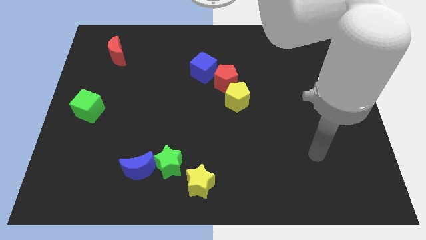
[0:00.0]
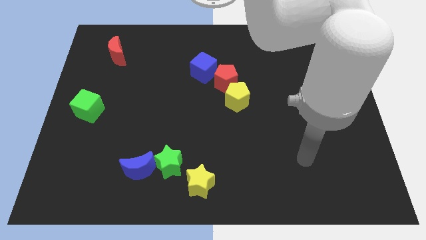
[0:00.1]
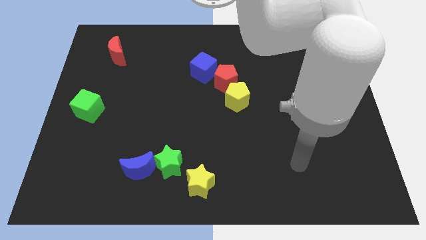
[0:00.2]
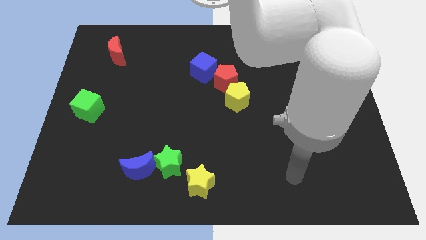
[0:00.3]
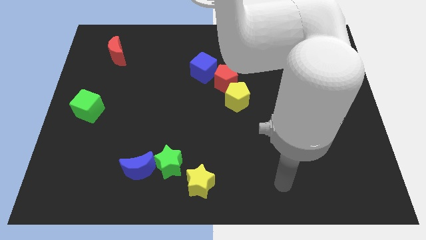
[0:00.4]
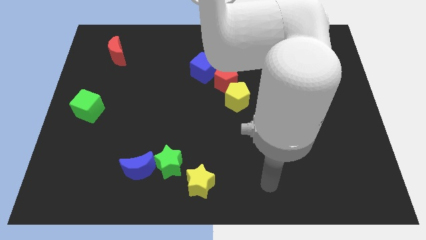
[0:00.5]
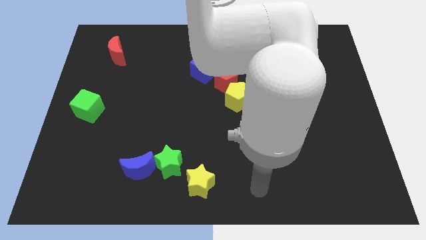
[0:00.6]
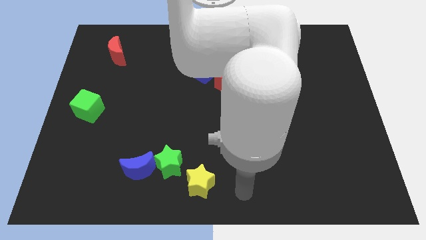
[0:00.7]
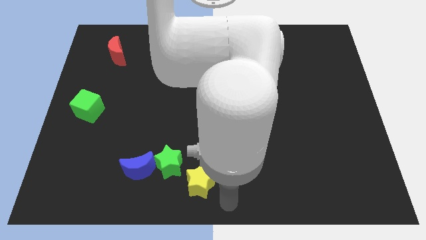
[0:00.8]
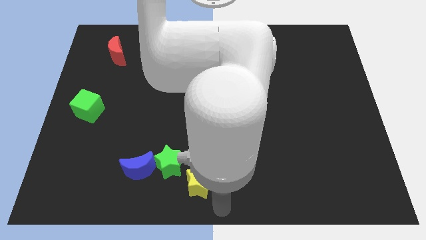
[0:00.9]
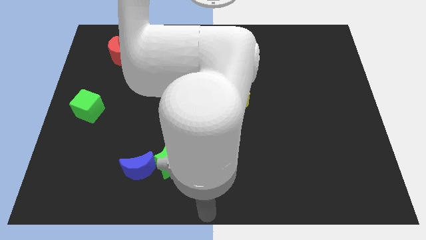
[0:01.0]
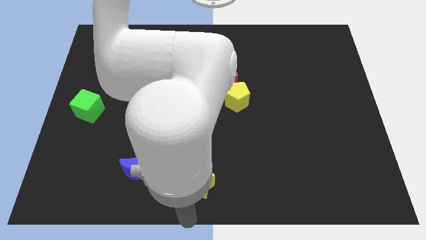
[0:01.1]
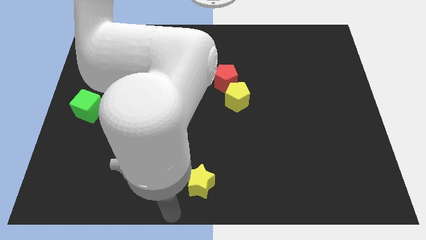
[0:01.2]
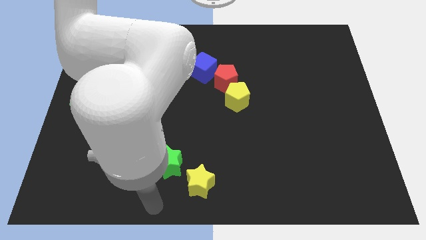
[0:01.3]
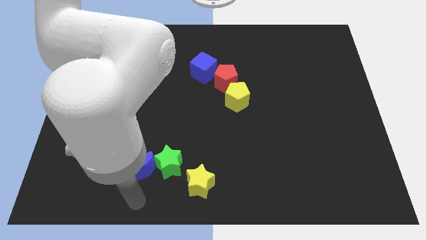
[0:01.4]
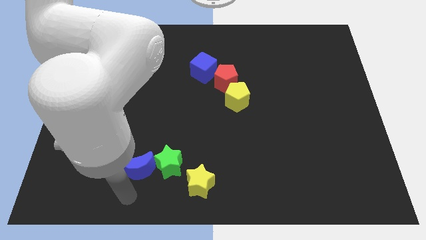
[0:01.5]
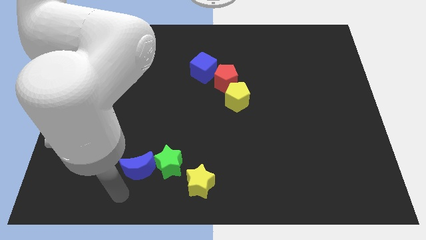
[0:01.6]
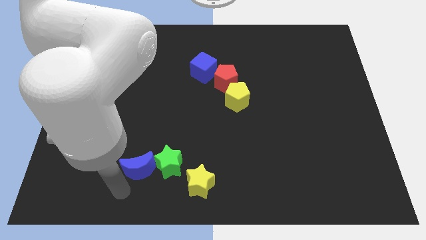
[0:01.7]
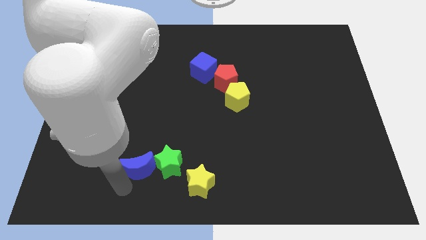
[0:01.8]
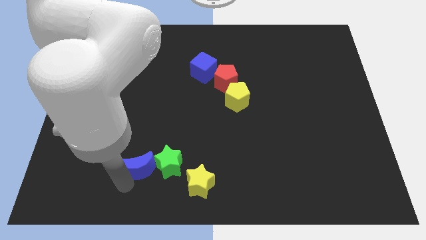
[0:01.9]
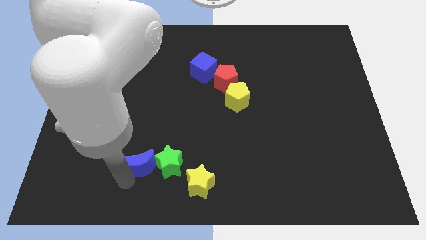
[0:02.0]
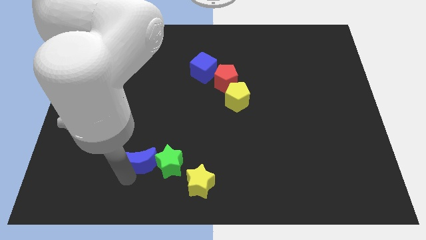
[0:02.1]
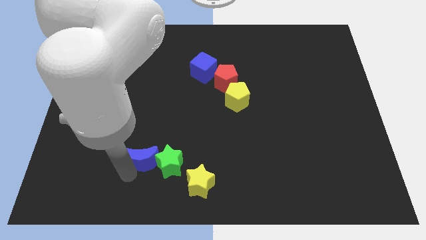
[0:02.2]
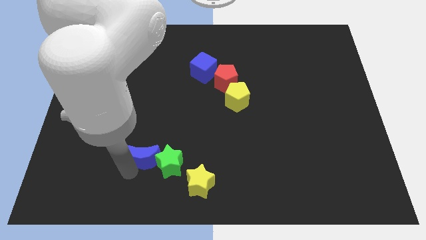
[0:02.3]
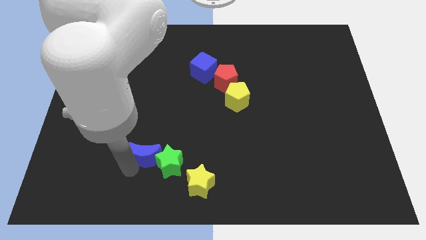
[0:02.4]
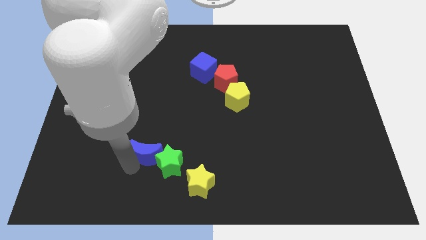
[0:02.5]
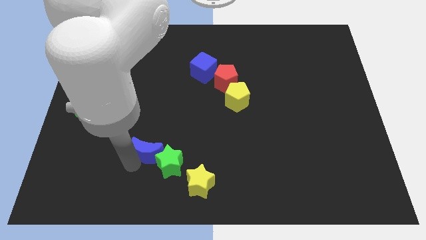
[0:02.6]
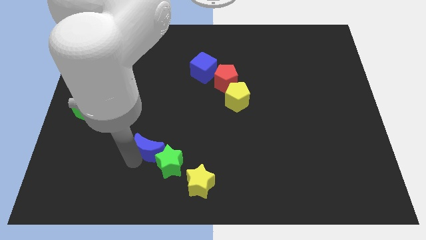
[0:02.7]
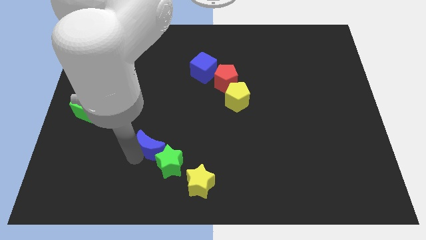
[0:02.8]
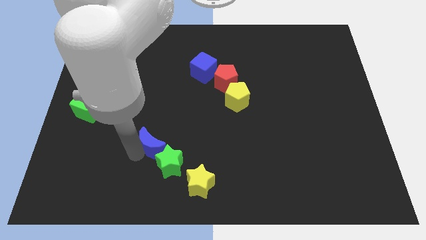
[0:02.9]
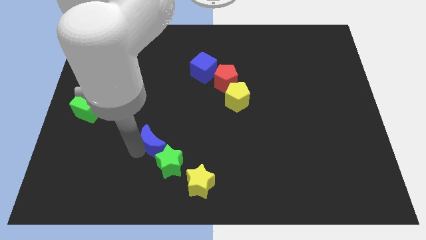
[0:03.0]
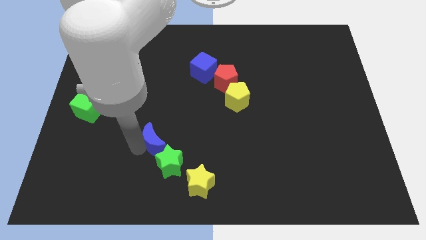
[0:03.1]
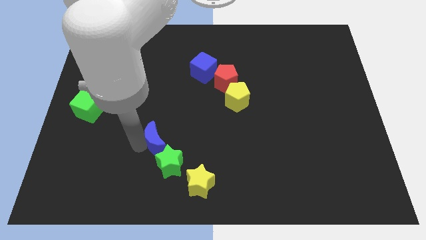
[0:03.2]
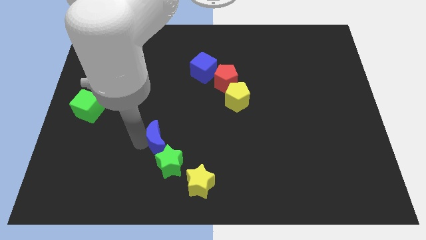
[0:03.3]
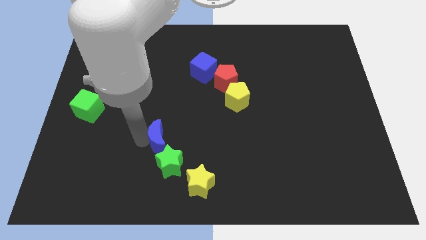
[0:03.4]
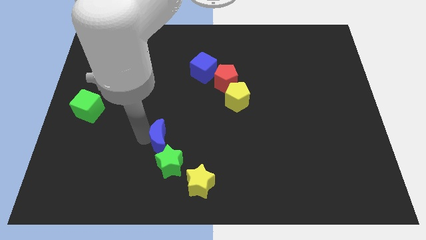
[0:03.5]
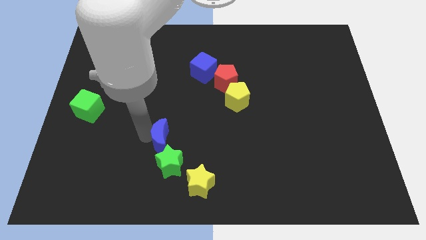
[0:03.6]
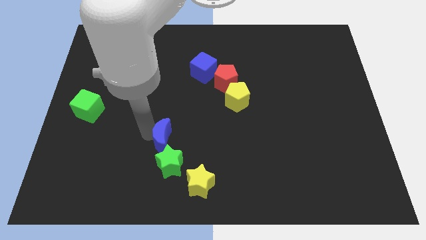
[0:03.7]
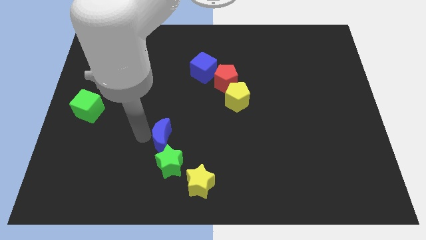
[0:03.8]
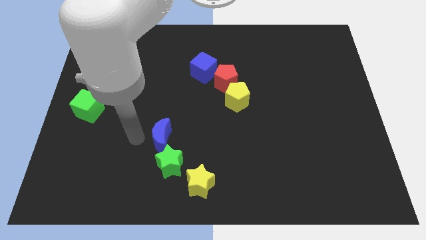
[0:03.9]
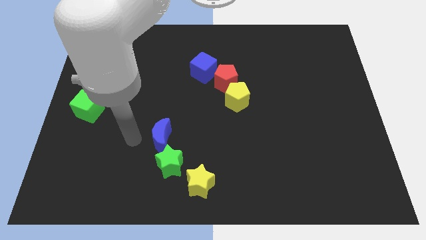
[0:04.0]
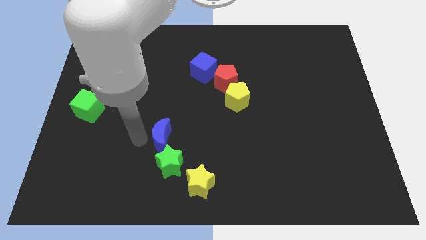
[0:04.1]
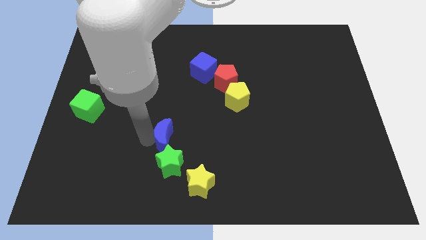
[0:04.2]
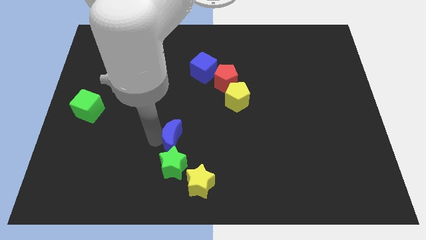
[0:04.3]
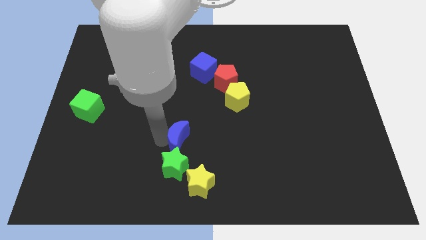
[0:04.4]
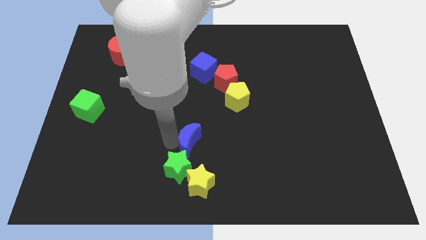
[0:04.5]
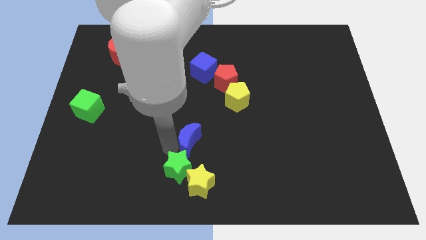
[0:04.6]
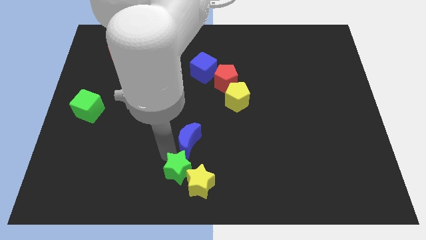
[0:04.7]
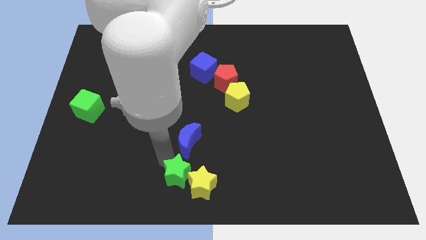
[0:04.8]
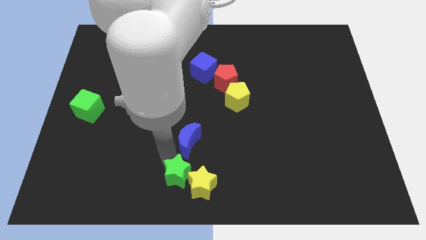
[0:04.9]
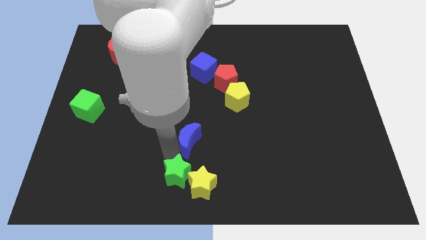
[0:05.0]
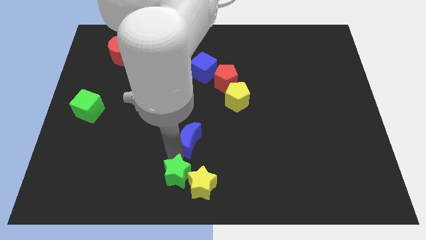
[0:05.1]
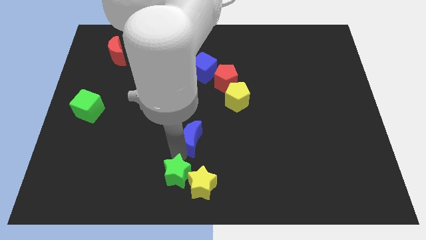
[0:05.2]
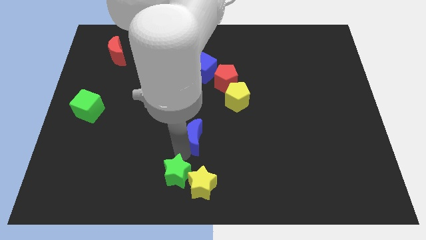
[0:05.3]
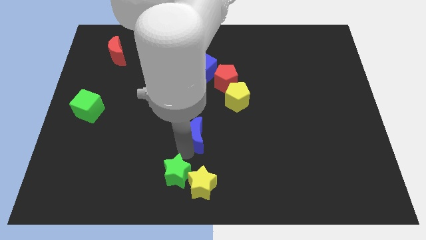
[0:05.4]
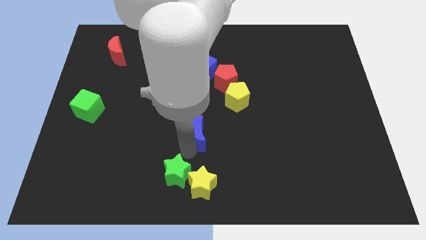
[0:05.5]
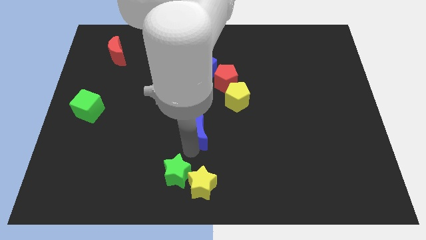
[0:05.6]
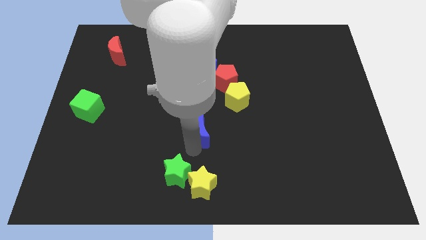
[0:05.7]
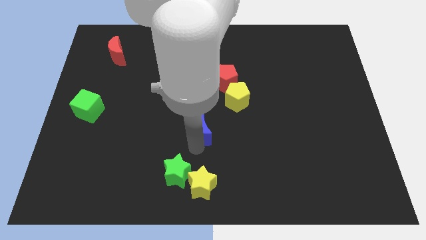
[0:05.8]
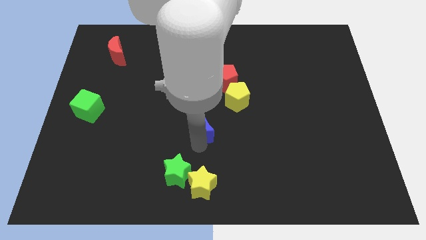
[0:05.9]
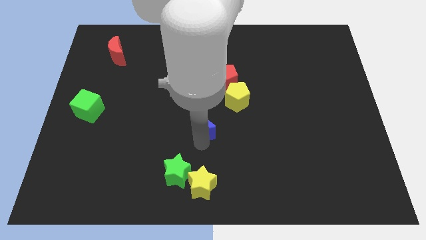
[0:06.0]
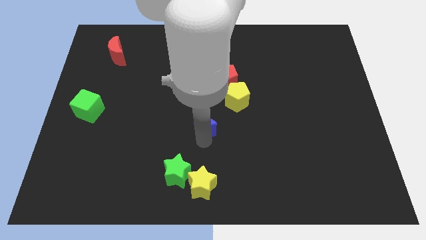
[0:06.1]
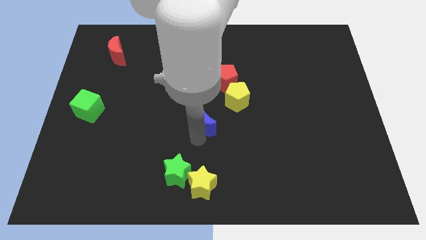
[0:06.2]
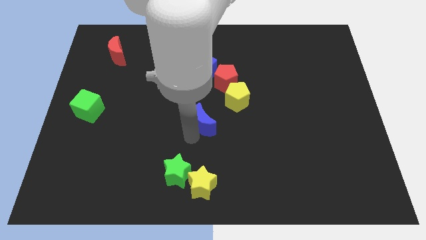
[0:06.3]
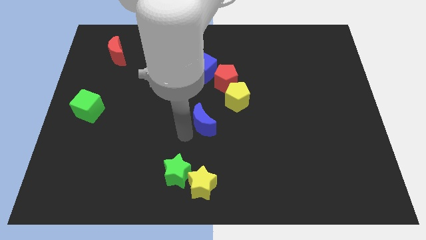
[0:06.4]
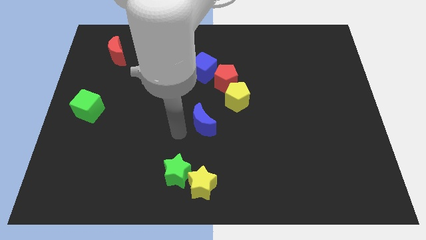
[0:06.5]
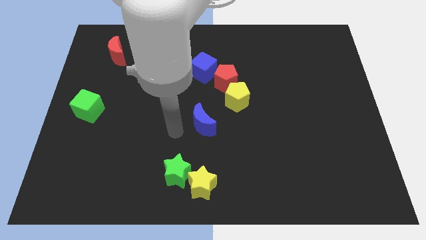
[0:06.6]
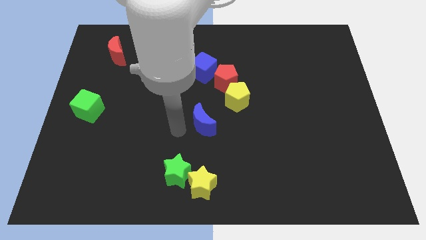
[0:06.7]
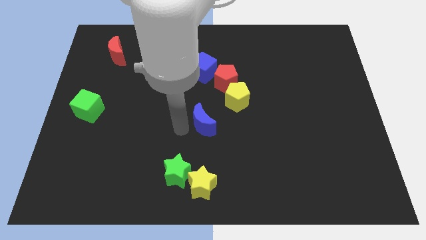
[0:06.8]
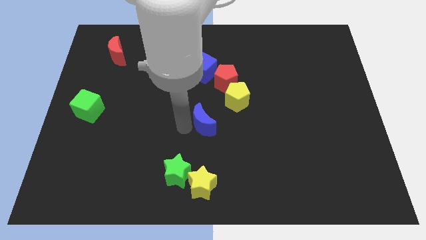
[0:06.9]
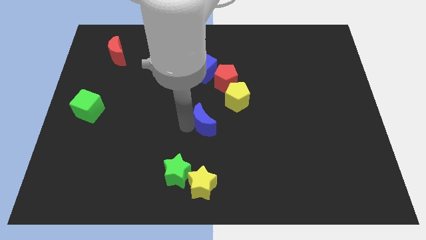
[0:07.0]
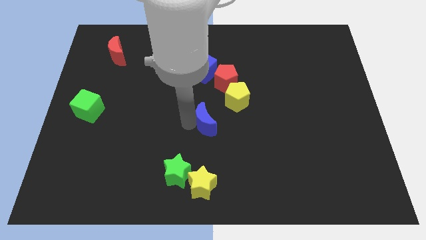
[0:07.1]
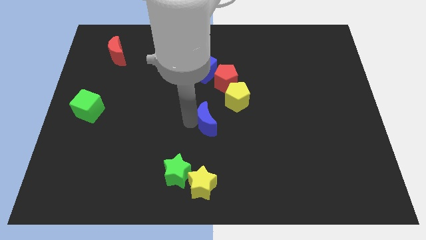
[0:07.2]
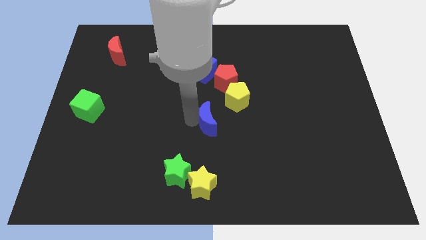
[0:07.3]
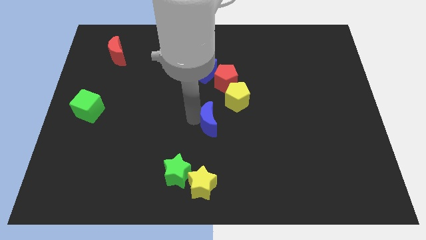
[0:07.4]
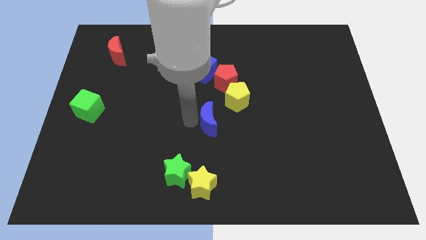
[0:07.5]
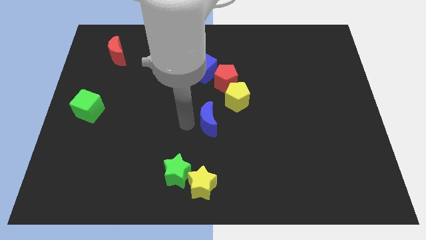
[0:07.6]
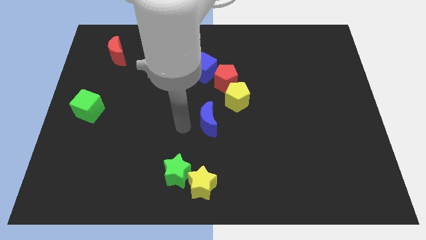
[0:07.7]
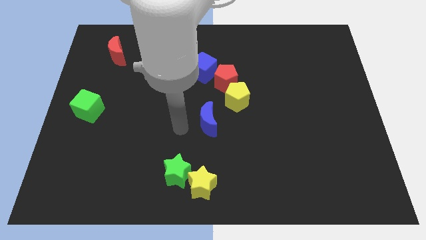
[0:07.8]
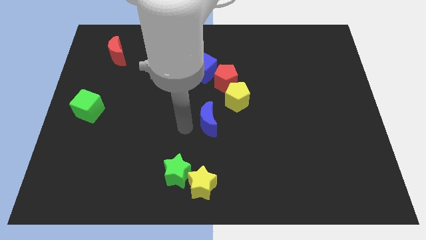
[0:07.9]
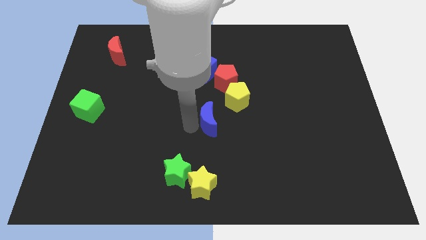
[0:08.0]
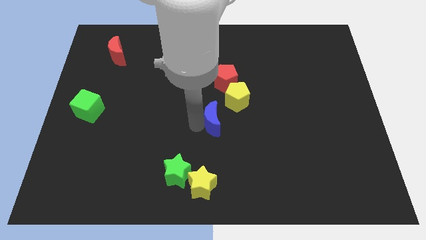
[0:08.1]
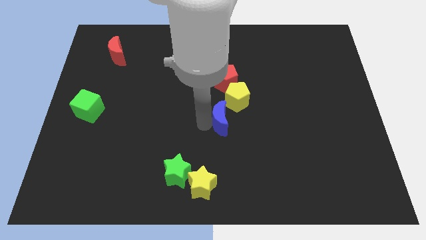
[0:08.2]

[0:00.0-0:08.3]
push the blue moon upwards and to the right diagonally
